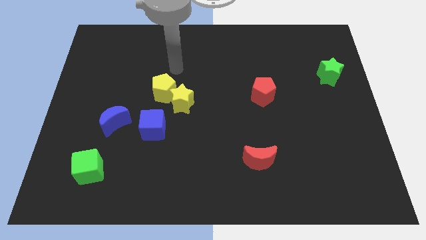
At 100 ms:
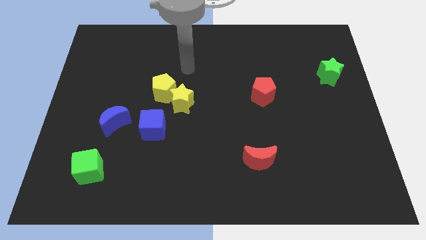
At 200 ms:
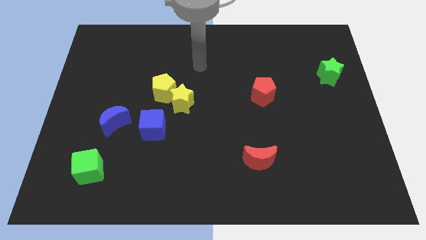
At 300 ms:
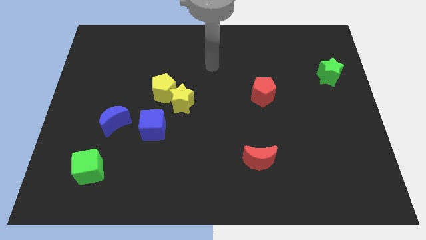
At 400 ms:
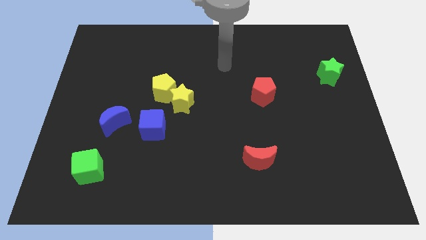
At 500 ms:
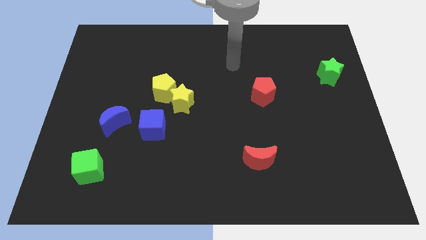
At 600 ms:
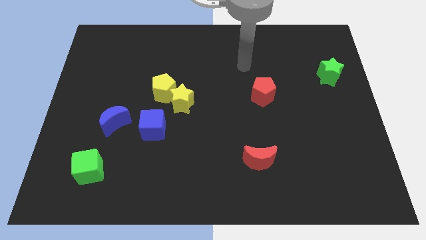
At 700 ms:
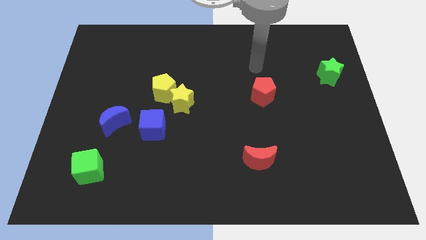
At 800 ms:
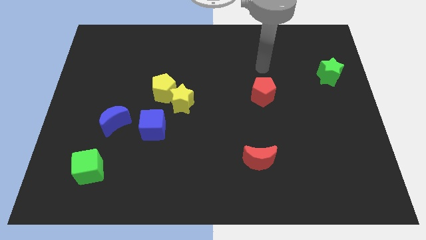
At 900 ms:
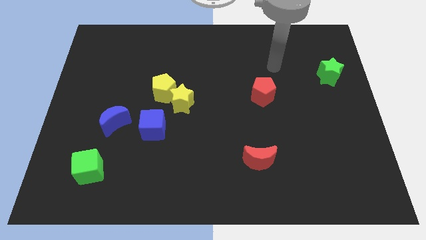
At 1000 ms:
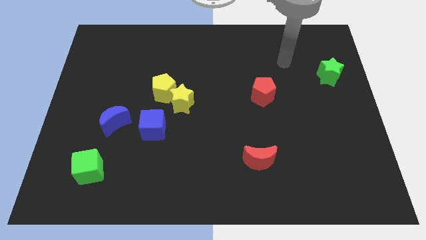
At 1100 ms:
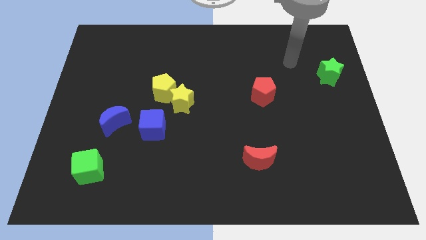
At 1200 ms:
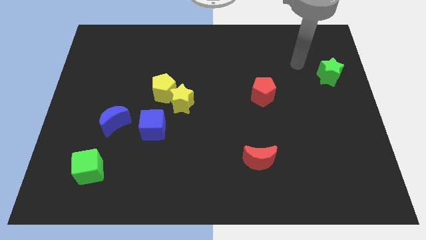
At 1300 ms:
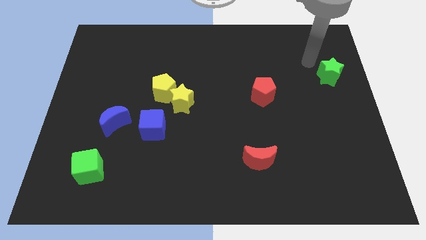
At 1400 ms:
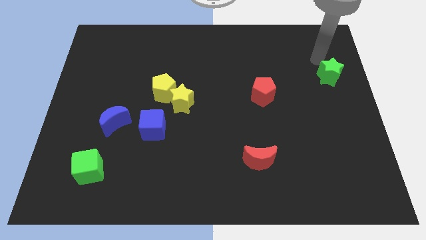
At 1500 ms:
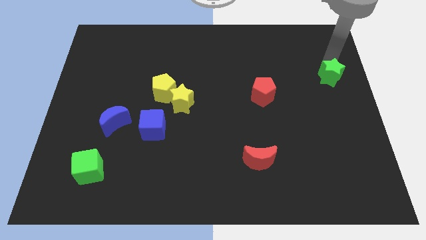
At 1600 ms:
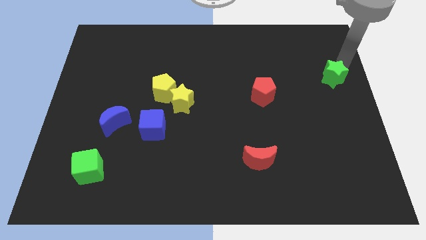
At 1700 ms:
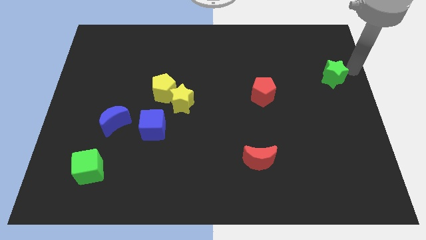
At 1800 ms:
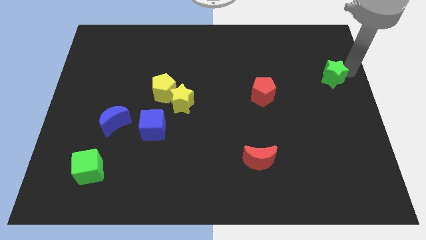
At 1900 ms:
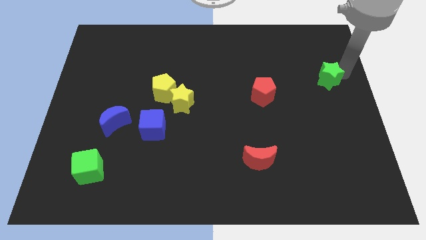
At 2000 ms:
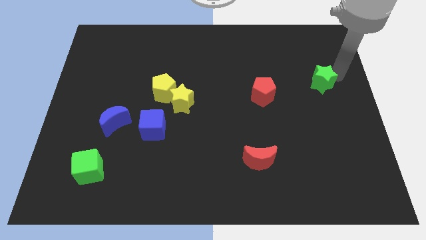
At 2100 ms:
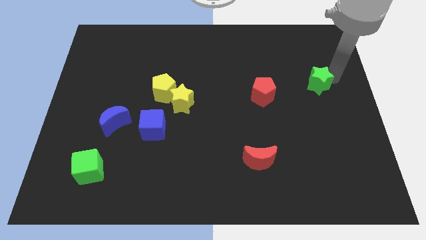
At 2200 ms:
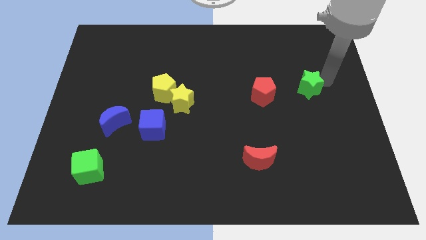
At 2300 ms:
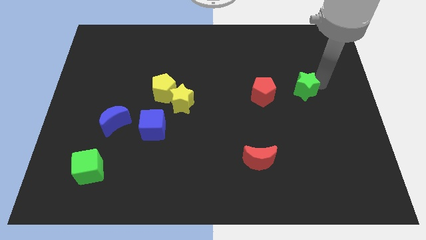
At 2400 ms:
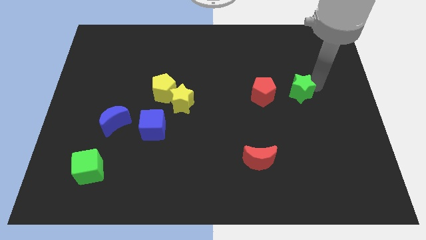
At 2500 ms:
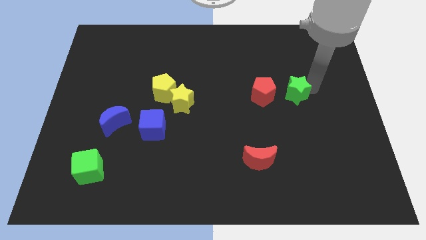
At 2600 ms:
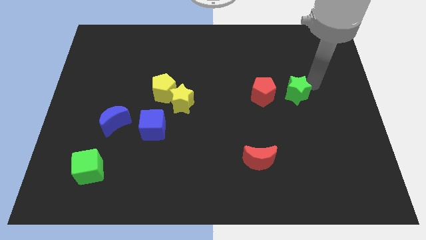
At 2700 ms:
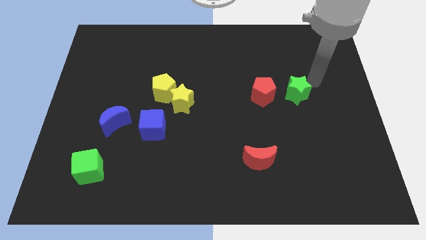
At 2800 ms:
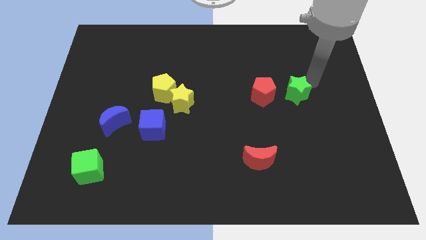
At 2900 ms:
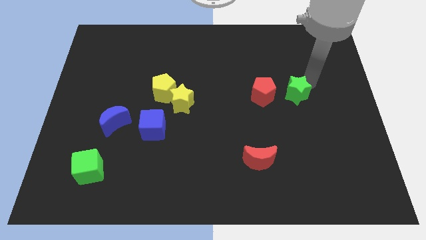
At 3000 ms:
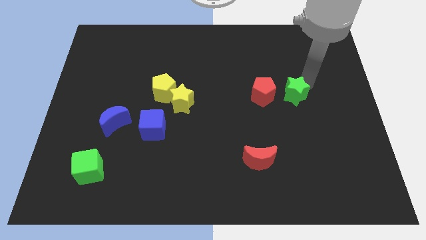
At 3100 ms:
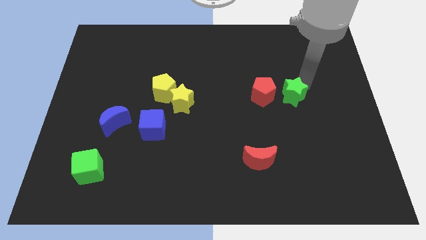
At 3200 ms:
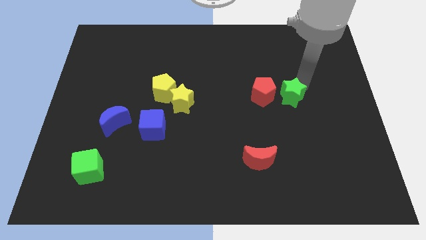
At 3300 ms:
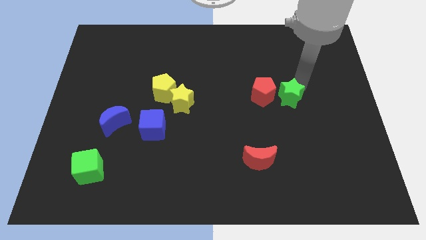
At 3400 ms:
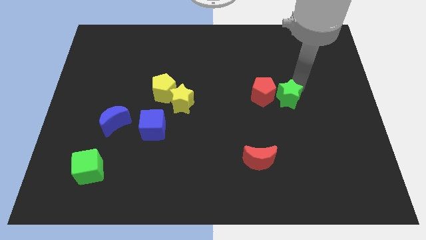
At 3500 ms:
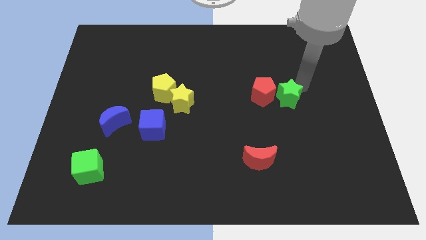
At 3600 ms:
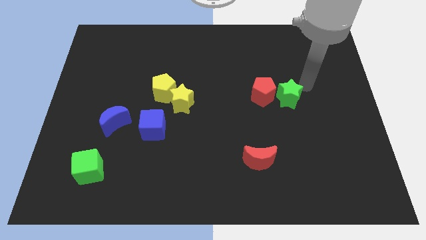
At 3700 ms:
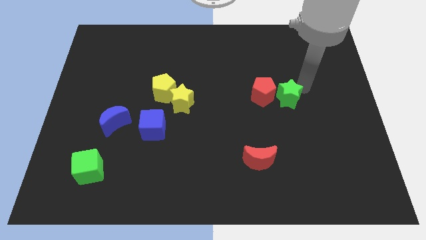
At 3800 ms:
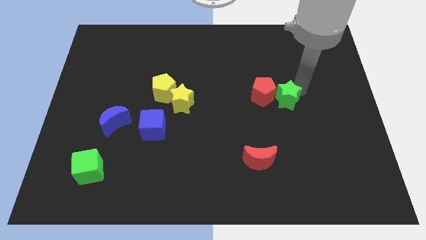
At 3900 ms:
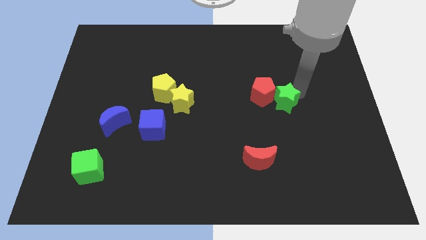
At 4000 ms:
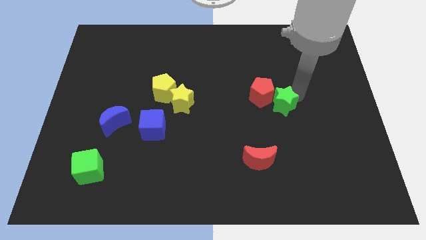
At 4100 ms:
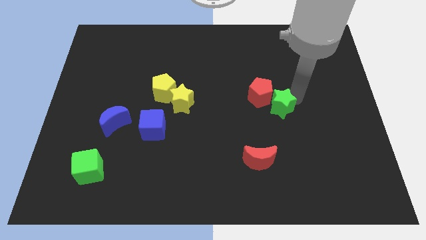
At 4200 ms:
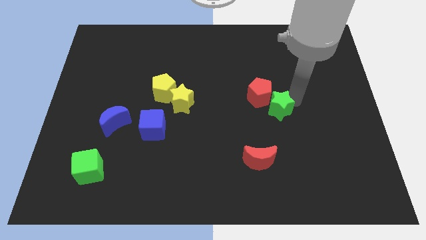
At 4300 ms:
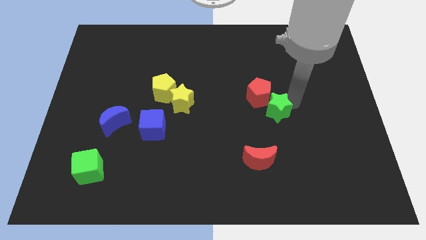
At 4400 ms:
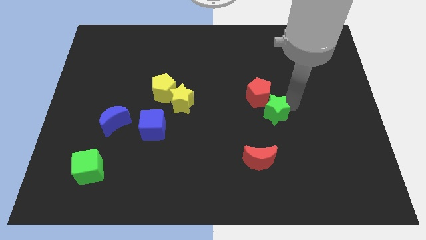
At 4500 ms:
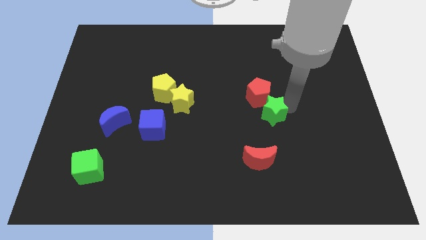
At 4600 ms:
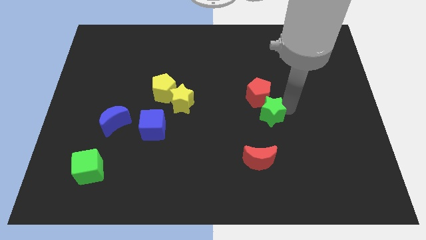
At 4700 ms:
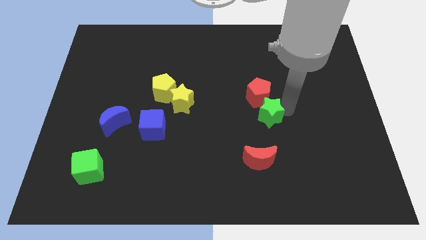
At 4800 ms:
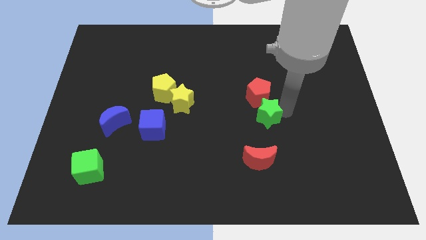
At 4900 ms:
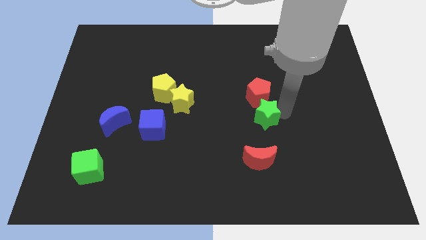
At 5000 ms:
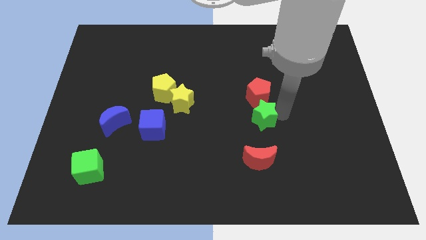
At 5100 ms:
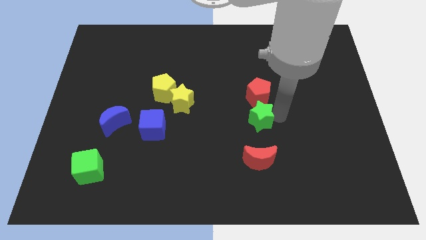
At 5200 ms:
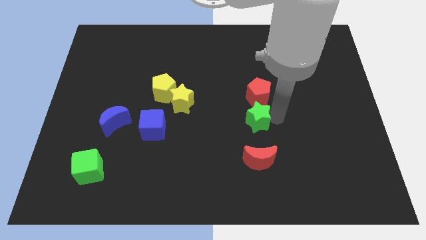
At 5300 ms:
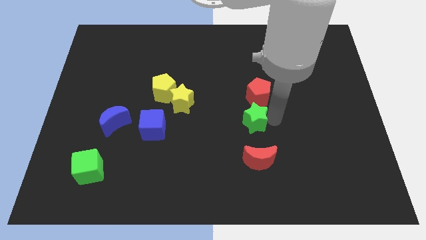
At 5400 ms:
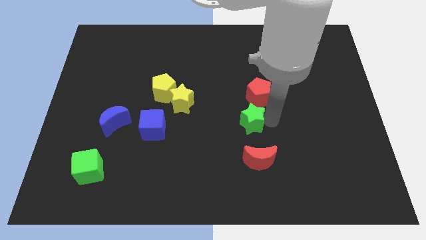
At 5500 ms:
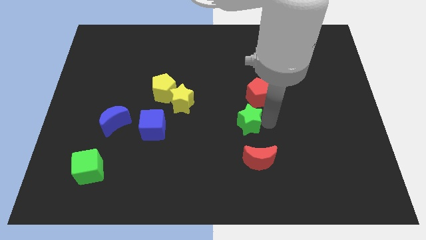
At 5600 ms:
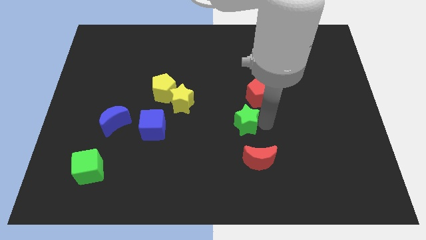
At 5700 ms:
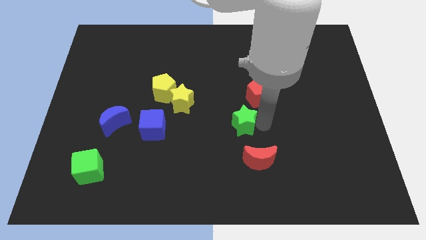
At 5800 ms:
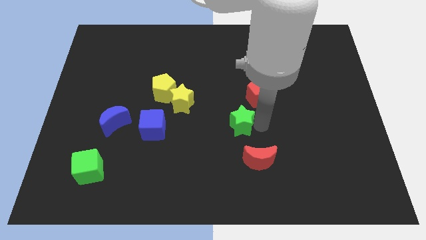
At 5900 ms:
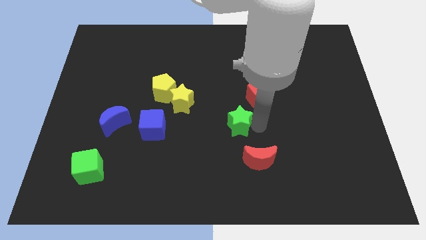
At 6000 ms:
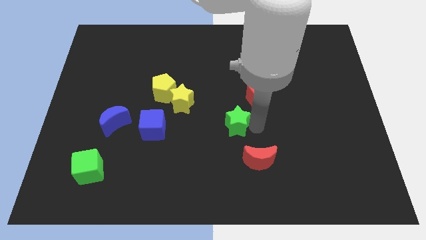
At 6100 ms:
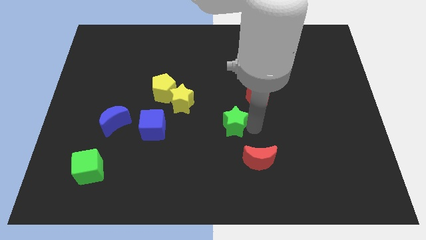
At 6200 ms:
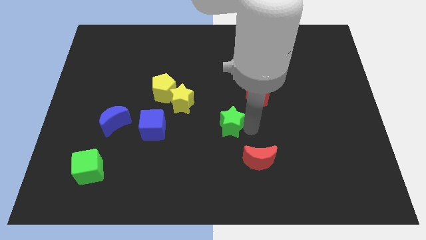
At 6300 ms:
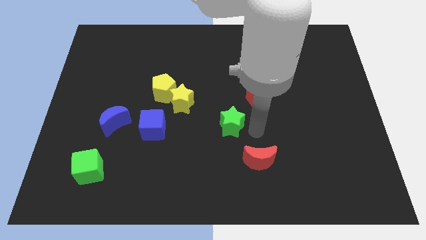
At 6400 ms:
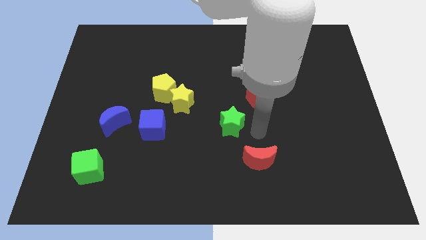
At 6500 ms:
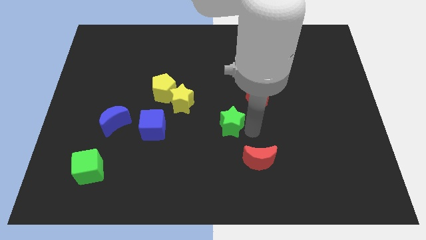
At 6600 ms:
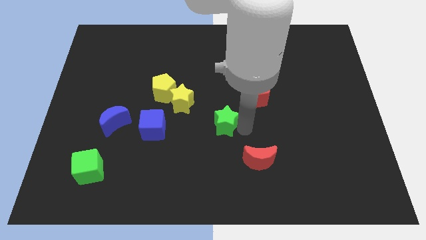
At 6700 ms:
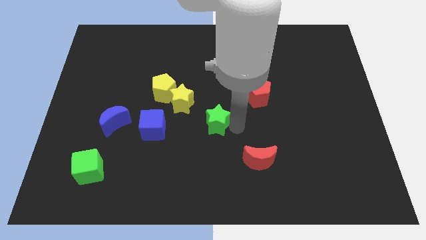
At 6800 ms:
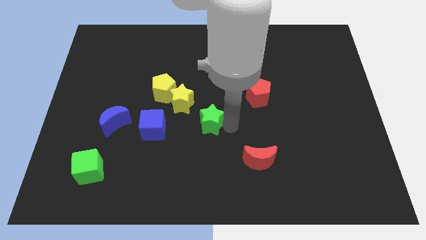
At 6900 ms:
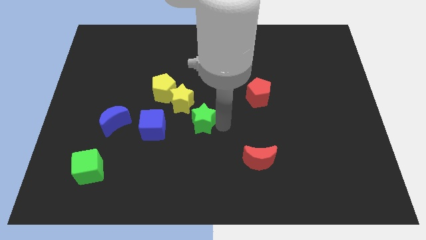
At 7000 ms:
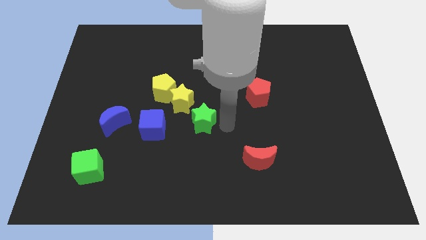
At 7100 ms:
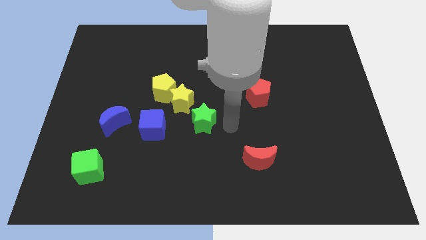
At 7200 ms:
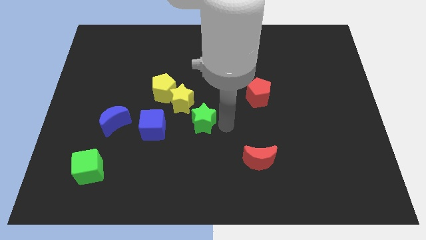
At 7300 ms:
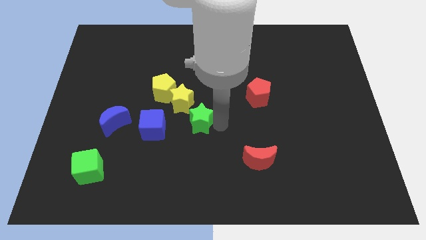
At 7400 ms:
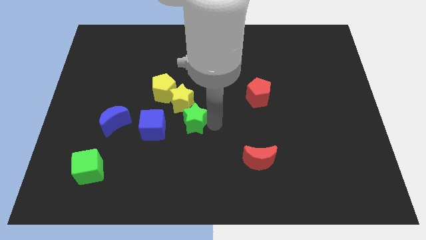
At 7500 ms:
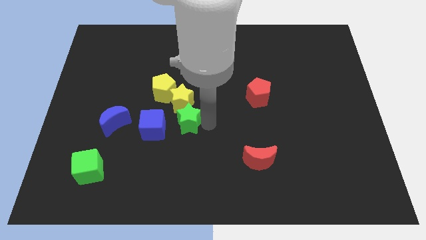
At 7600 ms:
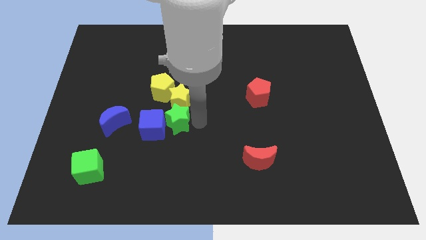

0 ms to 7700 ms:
move the green star towards the blue cube
